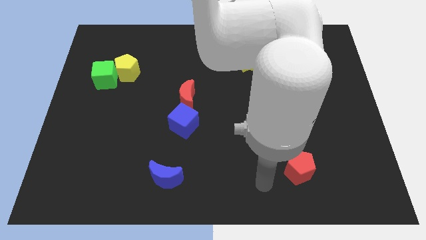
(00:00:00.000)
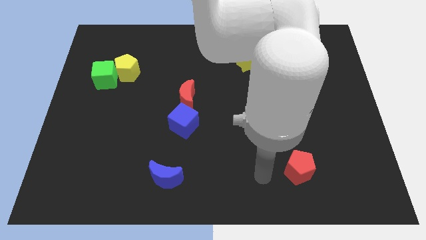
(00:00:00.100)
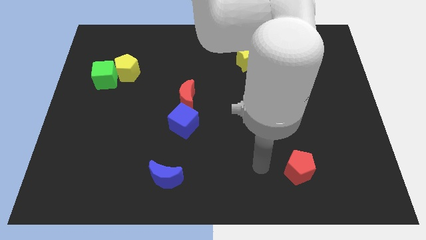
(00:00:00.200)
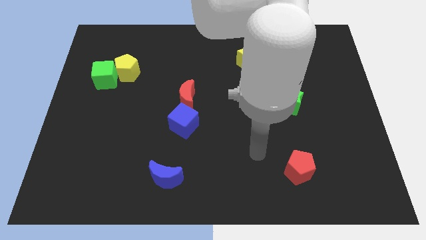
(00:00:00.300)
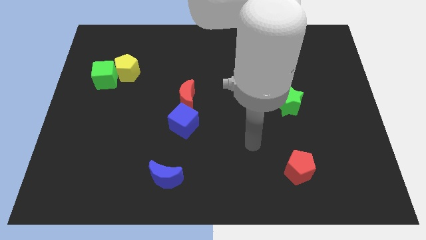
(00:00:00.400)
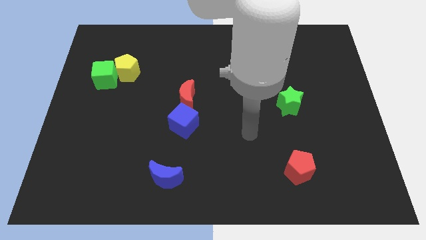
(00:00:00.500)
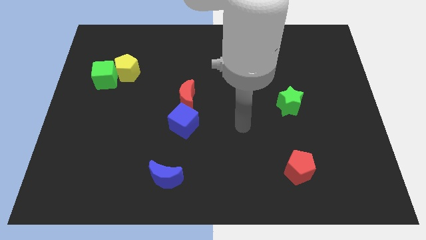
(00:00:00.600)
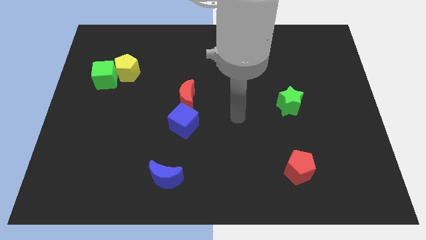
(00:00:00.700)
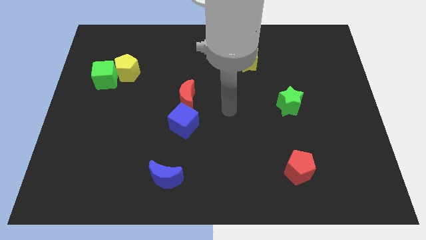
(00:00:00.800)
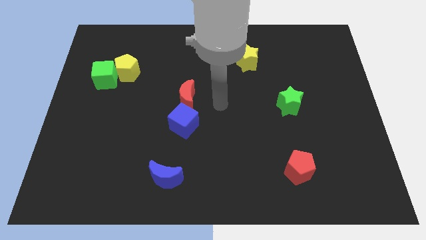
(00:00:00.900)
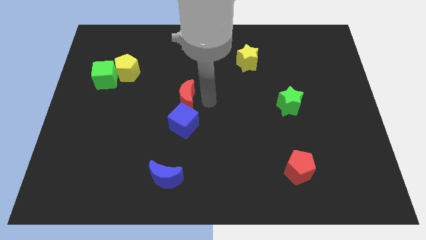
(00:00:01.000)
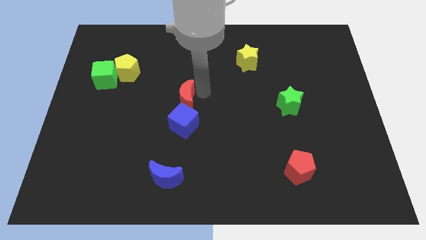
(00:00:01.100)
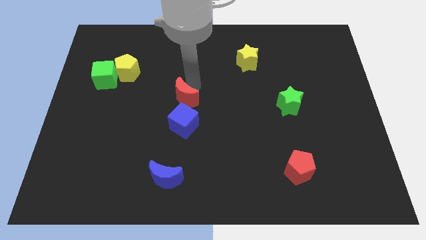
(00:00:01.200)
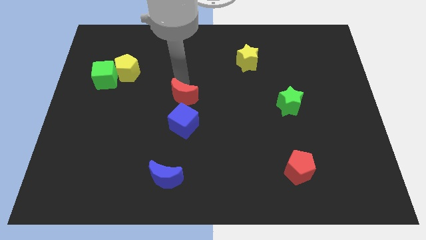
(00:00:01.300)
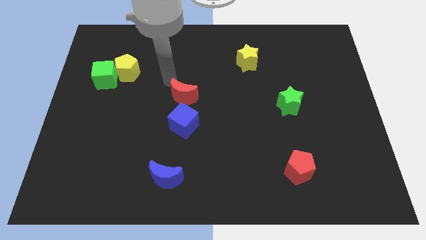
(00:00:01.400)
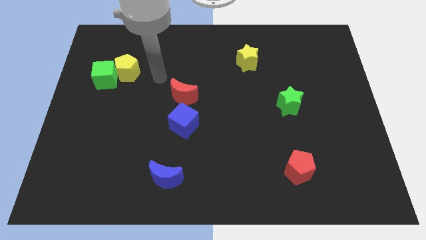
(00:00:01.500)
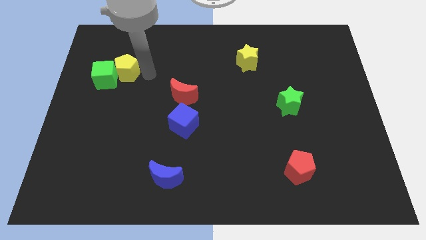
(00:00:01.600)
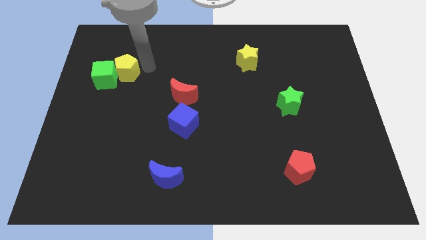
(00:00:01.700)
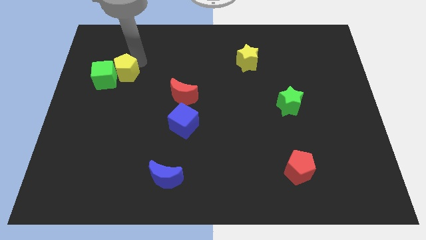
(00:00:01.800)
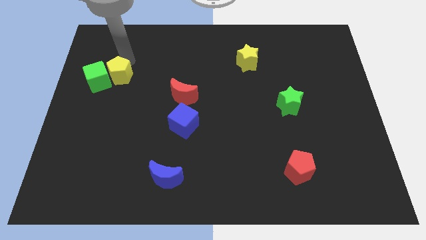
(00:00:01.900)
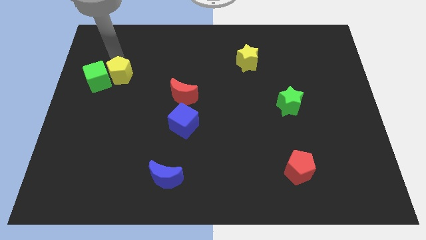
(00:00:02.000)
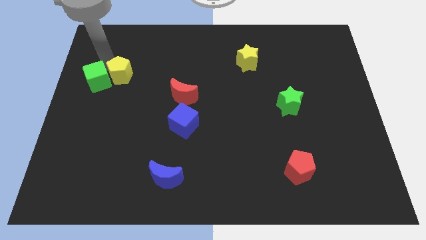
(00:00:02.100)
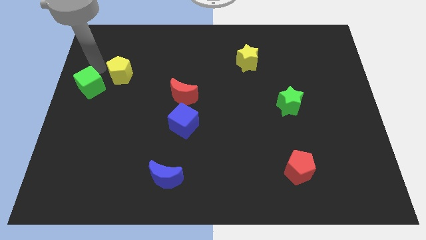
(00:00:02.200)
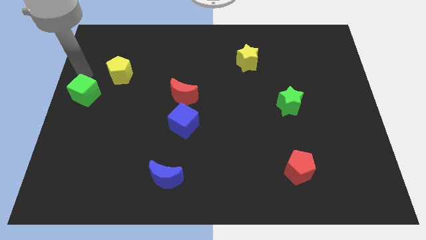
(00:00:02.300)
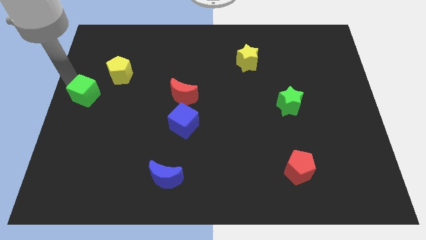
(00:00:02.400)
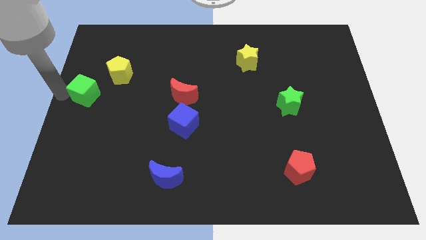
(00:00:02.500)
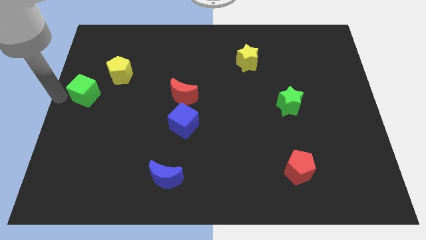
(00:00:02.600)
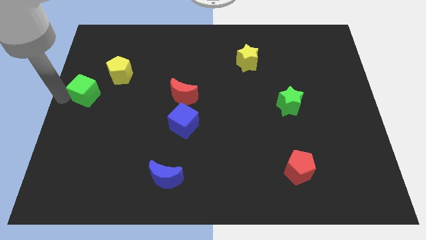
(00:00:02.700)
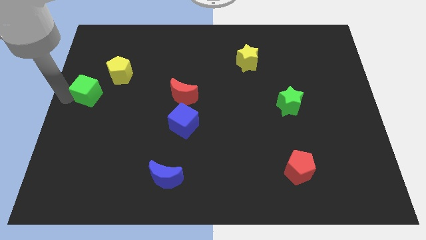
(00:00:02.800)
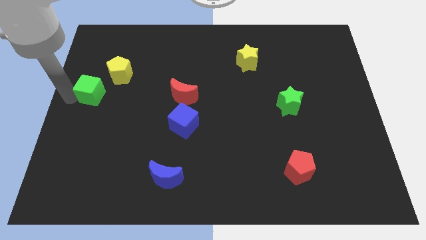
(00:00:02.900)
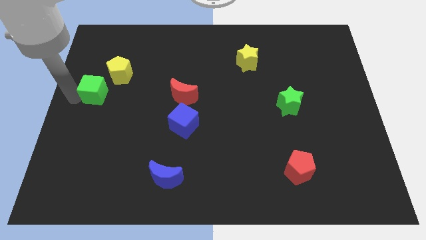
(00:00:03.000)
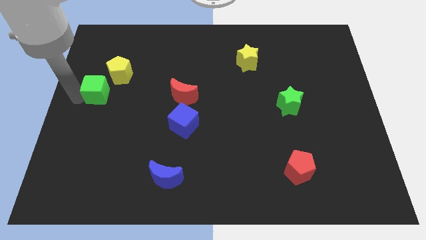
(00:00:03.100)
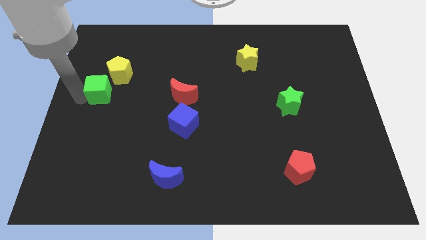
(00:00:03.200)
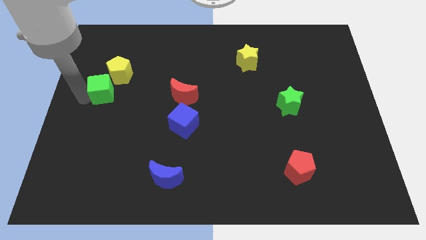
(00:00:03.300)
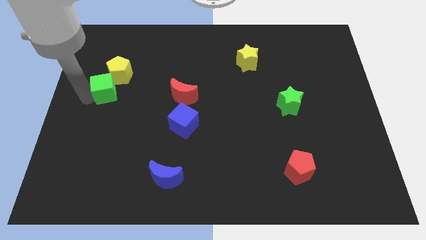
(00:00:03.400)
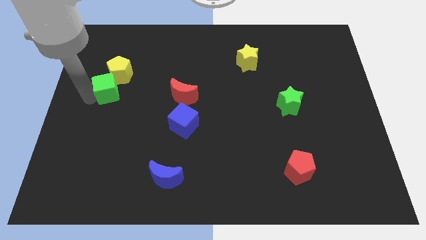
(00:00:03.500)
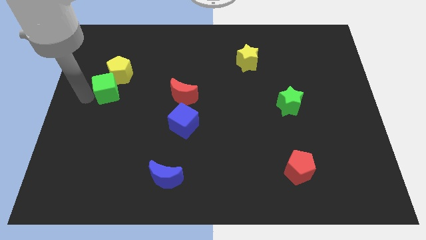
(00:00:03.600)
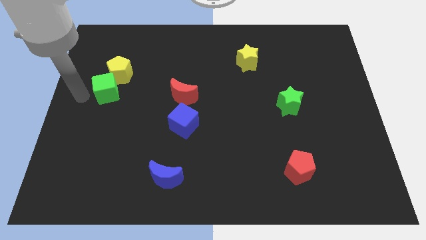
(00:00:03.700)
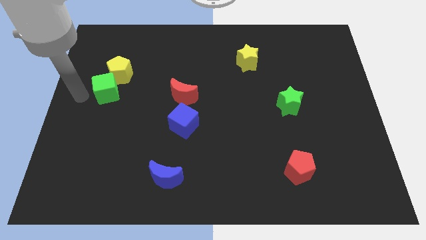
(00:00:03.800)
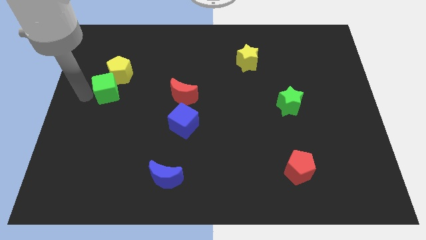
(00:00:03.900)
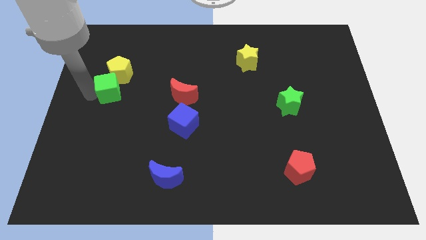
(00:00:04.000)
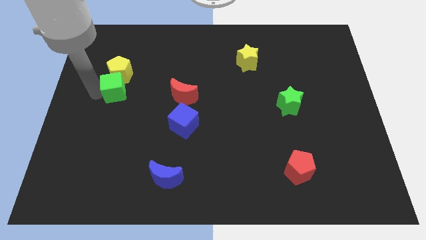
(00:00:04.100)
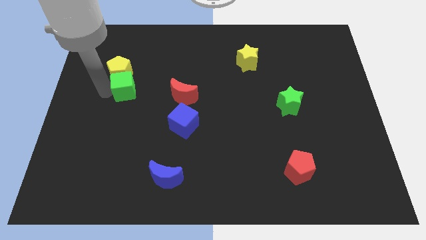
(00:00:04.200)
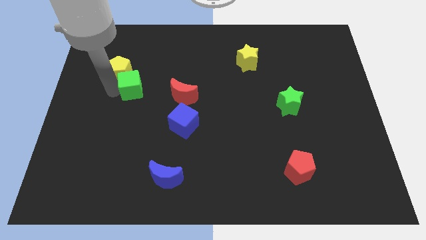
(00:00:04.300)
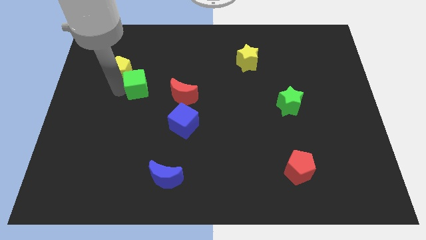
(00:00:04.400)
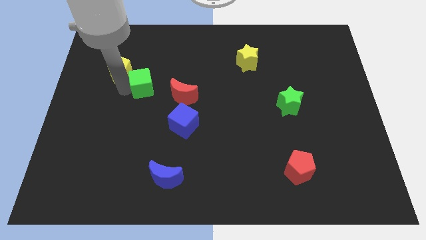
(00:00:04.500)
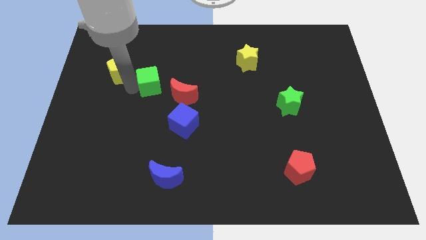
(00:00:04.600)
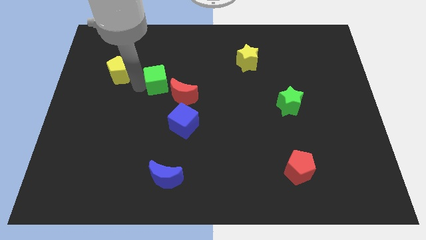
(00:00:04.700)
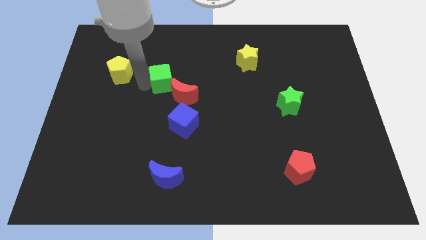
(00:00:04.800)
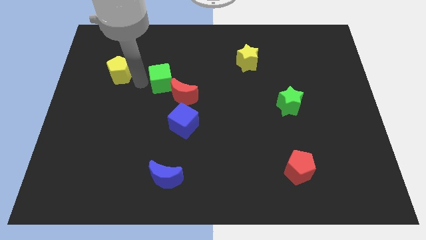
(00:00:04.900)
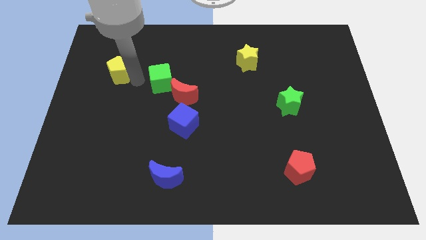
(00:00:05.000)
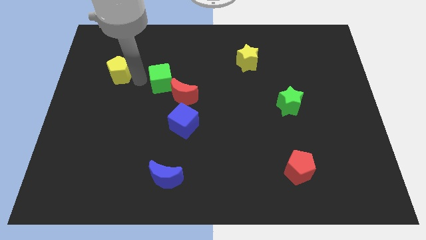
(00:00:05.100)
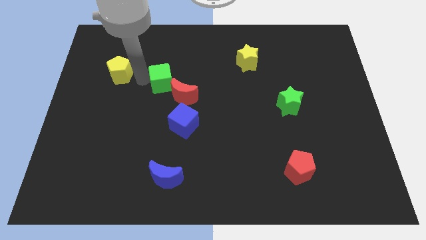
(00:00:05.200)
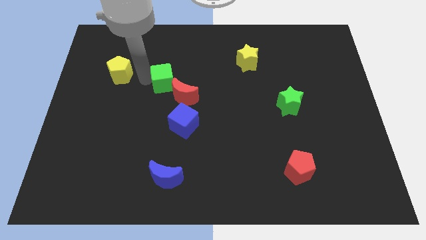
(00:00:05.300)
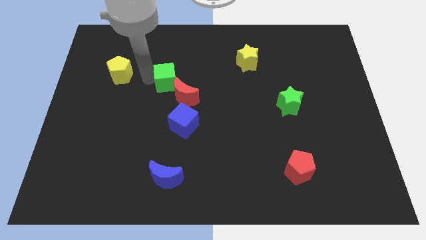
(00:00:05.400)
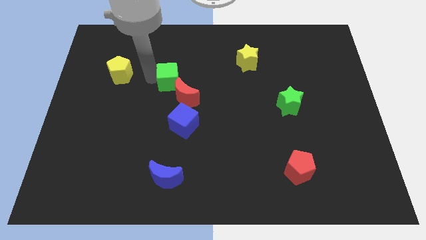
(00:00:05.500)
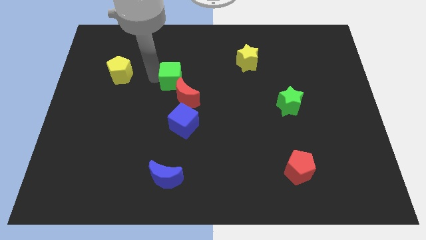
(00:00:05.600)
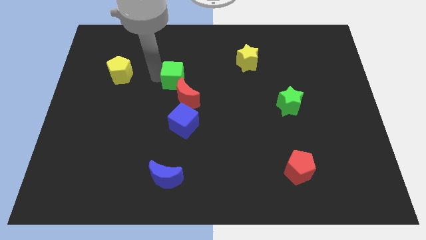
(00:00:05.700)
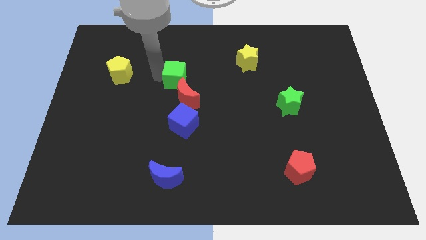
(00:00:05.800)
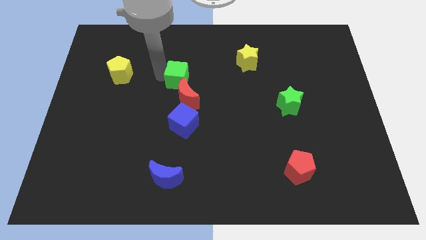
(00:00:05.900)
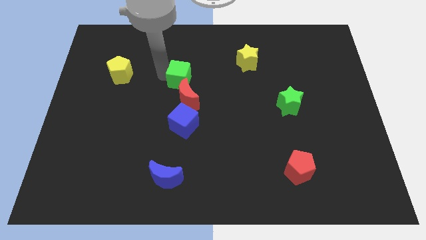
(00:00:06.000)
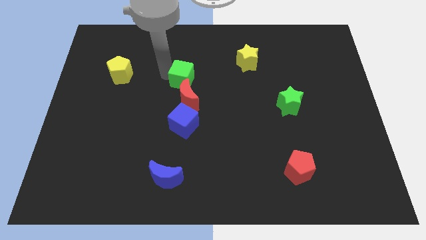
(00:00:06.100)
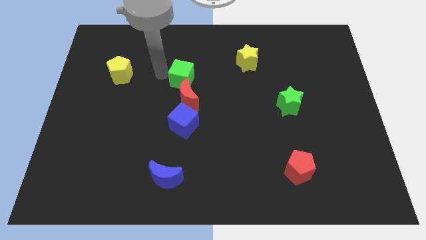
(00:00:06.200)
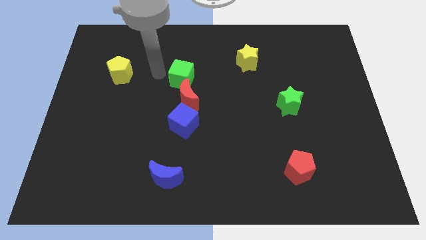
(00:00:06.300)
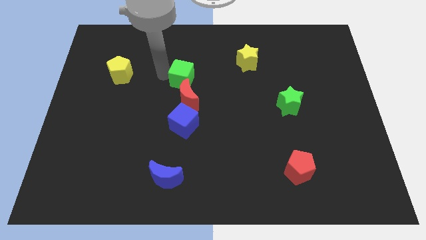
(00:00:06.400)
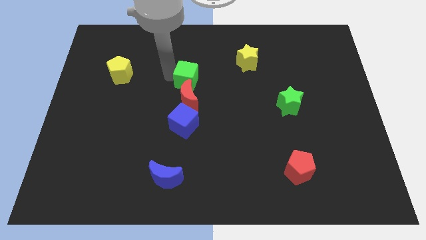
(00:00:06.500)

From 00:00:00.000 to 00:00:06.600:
slide the green cube to the right

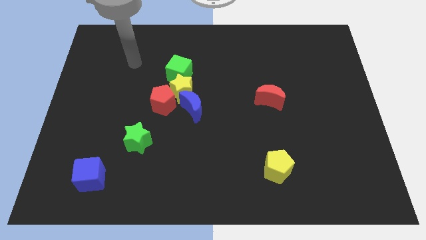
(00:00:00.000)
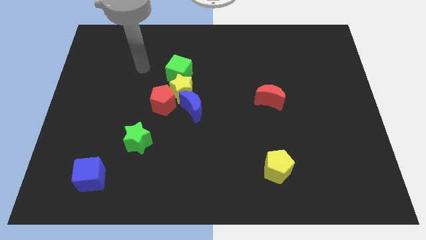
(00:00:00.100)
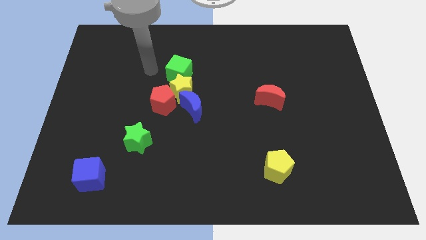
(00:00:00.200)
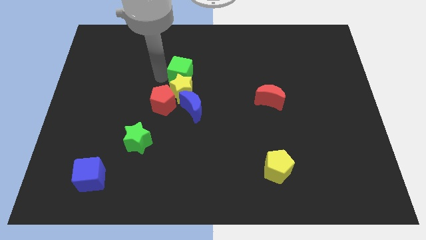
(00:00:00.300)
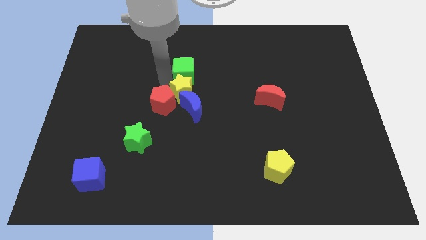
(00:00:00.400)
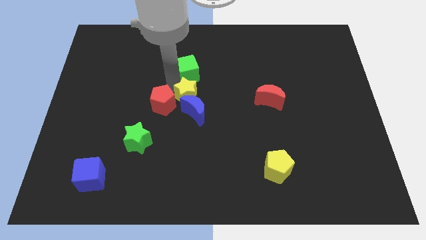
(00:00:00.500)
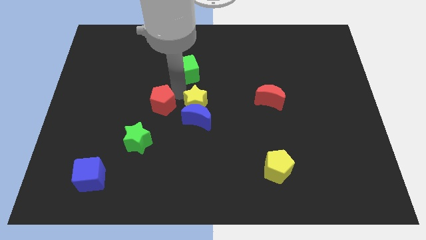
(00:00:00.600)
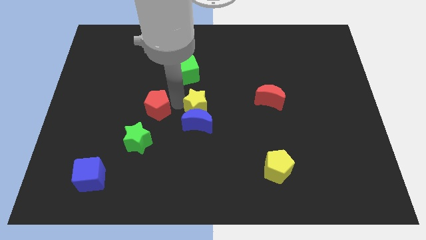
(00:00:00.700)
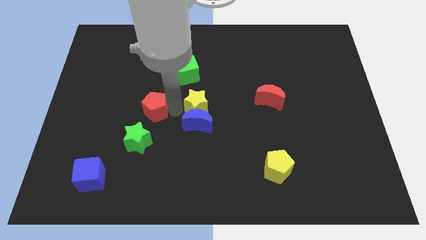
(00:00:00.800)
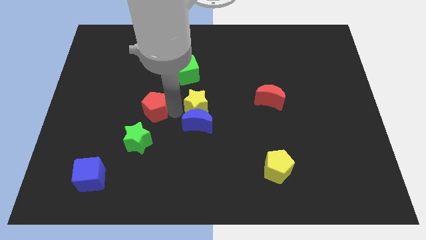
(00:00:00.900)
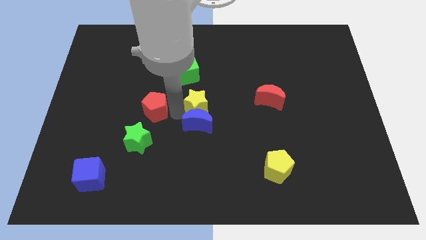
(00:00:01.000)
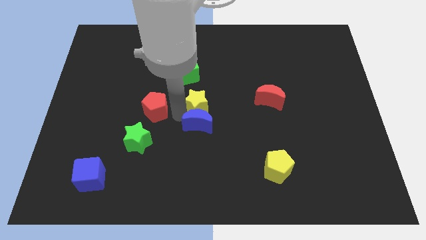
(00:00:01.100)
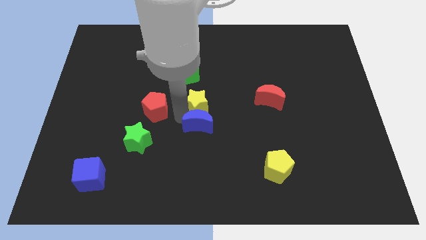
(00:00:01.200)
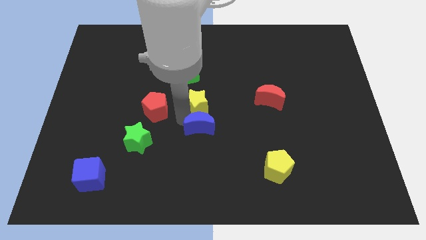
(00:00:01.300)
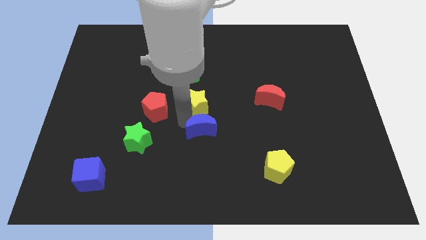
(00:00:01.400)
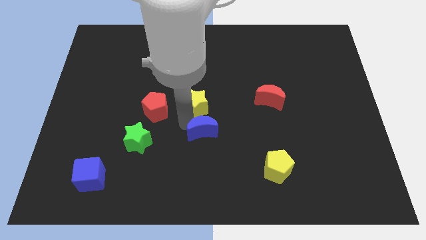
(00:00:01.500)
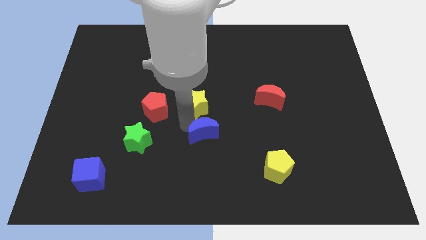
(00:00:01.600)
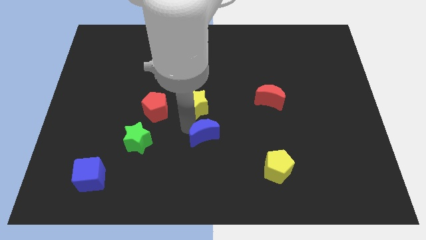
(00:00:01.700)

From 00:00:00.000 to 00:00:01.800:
push the blue moon a bit diagonally downwards and to the right
